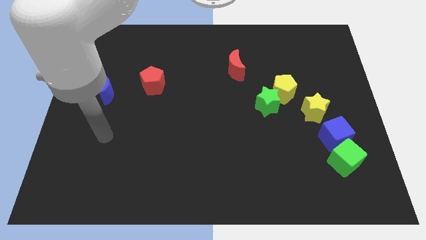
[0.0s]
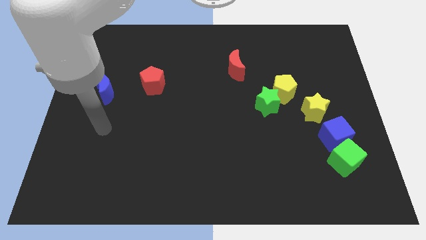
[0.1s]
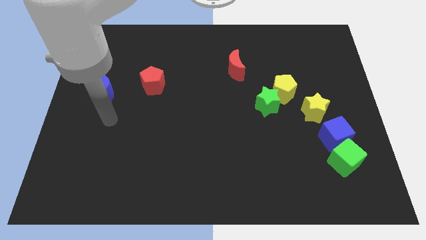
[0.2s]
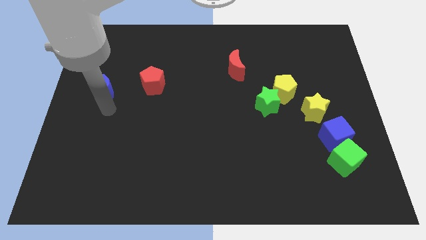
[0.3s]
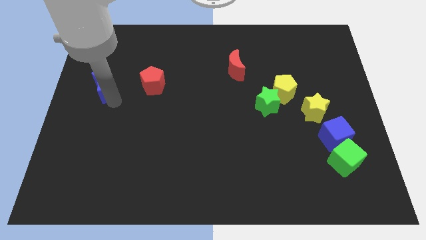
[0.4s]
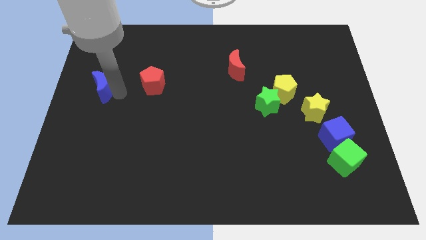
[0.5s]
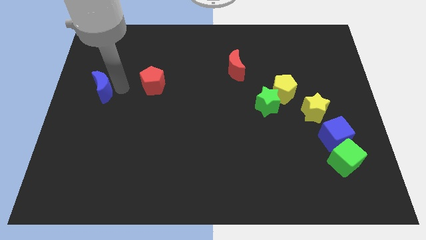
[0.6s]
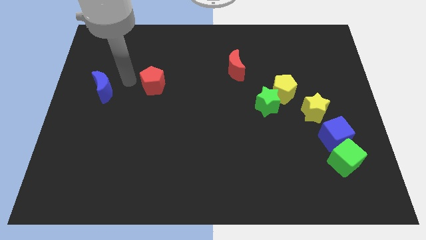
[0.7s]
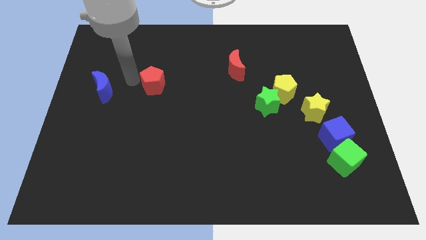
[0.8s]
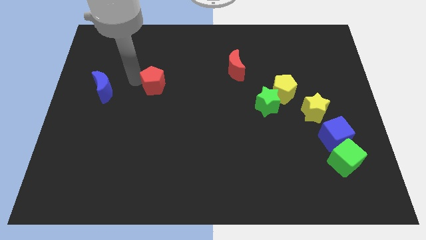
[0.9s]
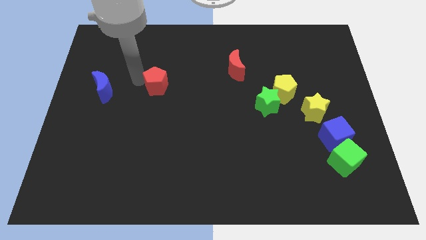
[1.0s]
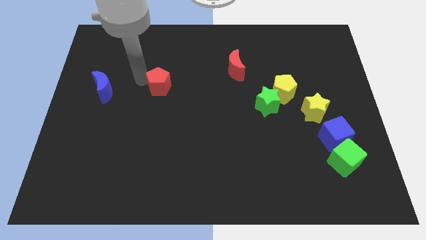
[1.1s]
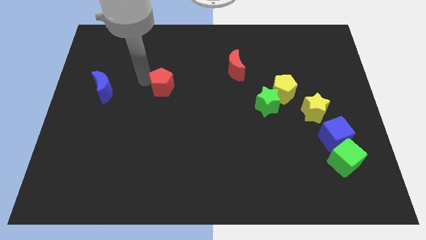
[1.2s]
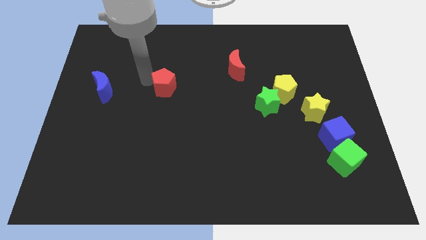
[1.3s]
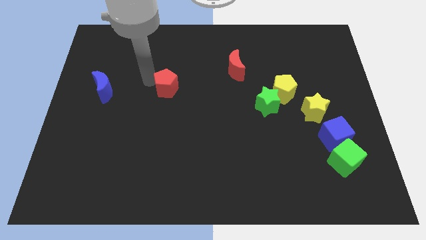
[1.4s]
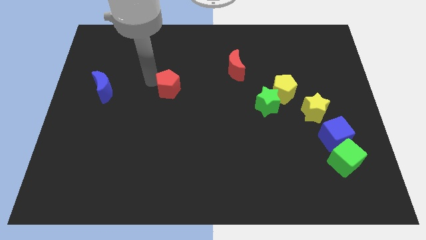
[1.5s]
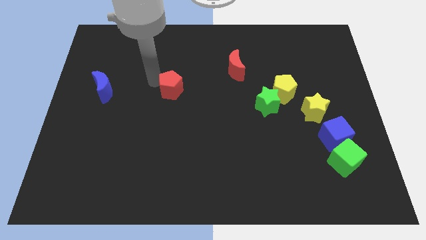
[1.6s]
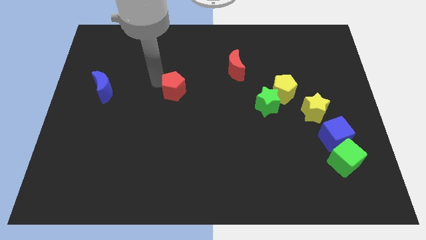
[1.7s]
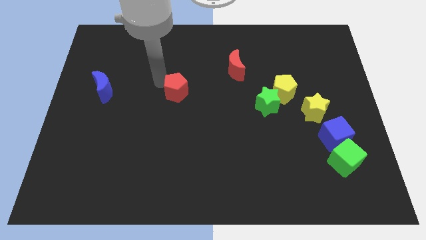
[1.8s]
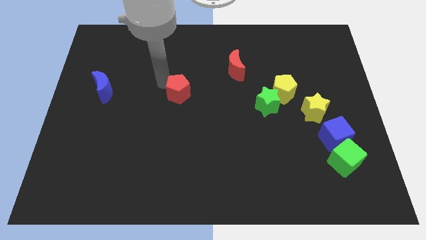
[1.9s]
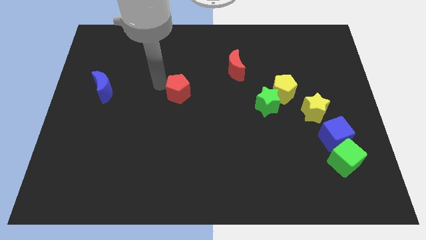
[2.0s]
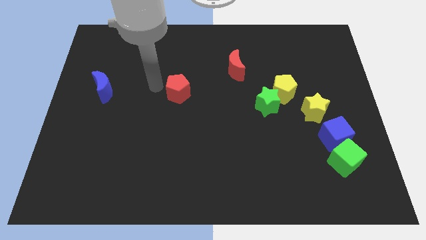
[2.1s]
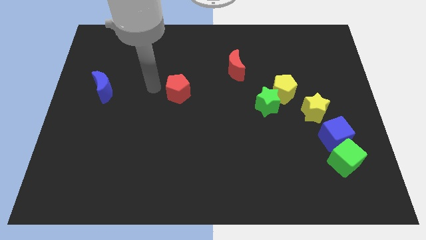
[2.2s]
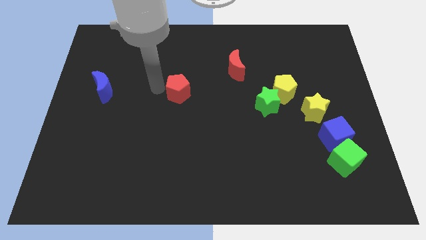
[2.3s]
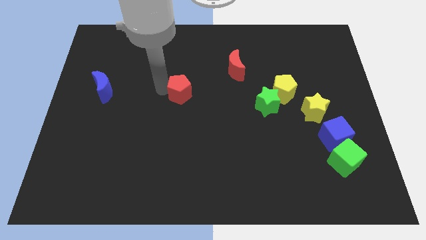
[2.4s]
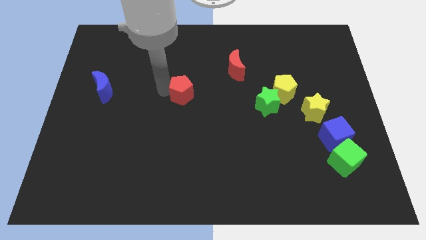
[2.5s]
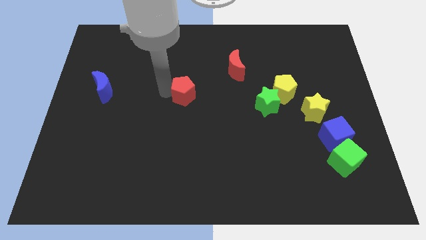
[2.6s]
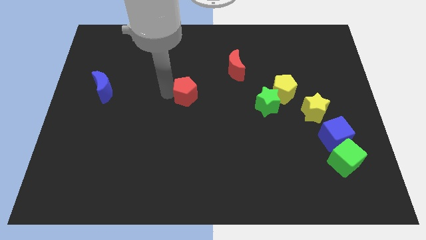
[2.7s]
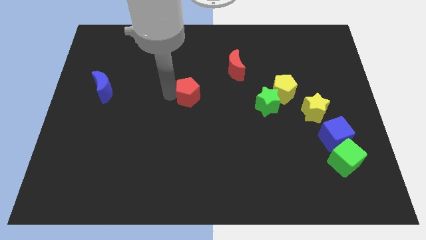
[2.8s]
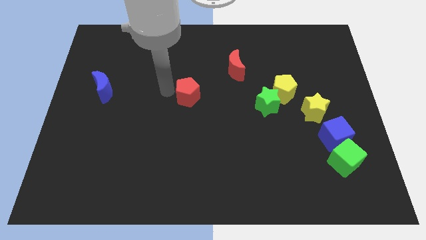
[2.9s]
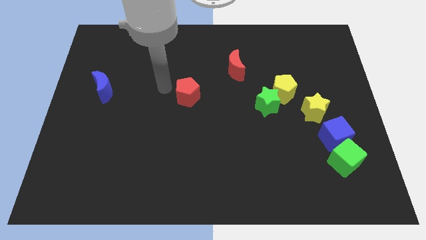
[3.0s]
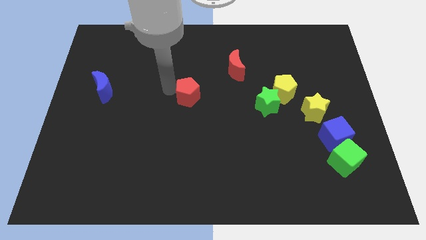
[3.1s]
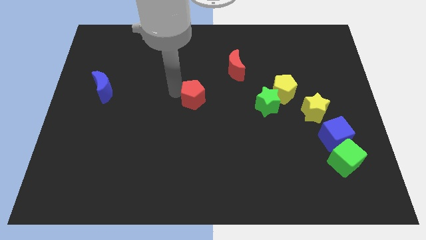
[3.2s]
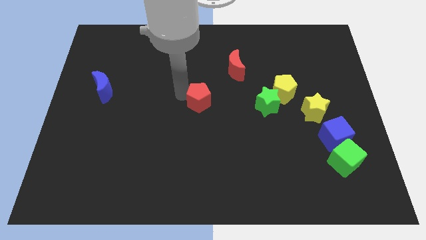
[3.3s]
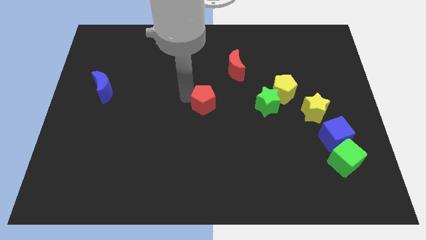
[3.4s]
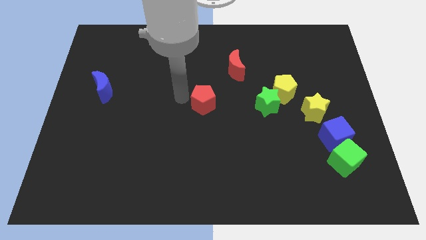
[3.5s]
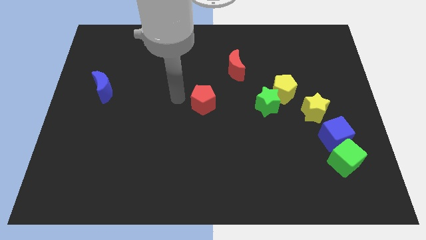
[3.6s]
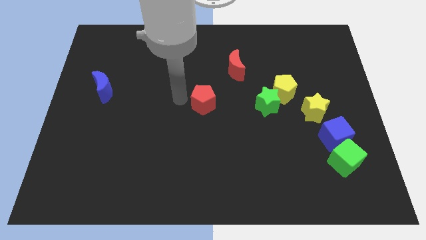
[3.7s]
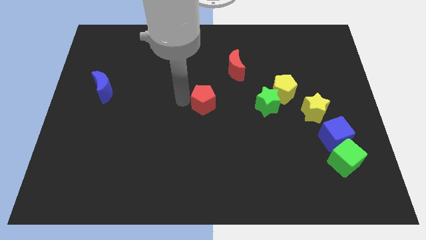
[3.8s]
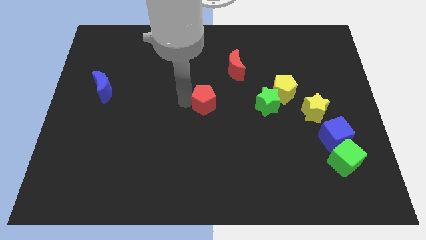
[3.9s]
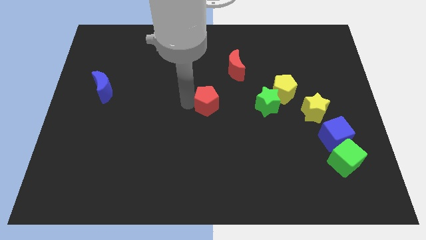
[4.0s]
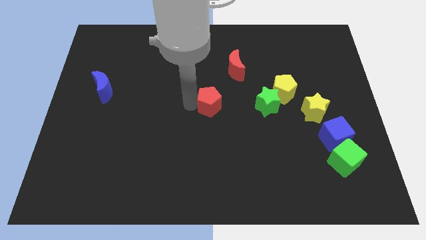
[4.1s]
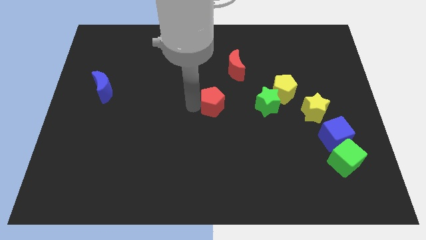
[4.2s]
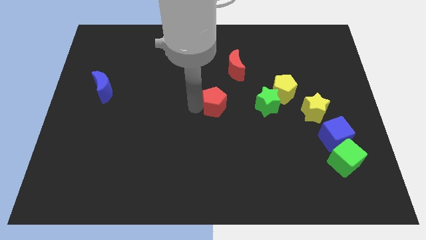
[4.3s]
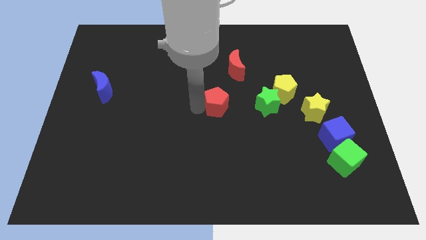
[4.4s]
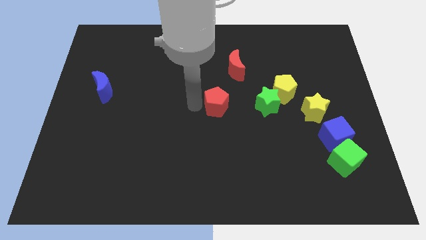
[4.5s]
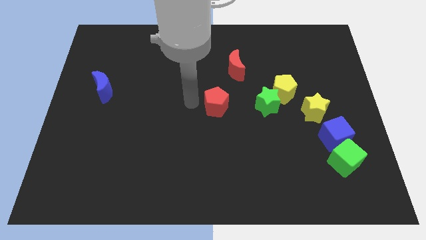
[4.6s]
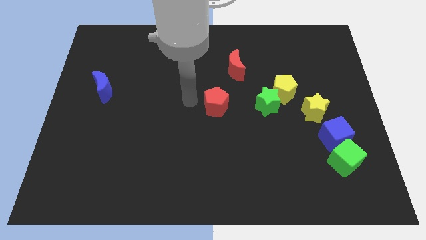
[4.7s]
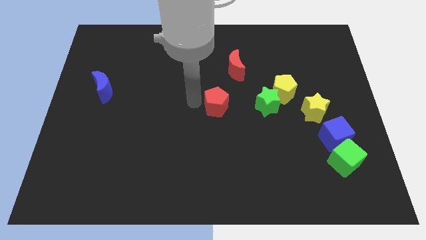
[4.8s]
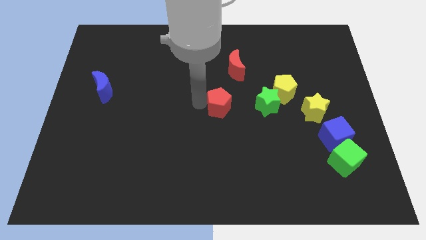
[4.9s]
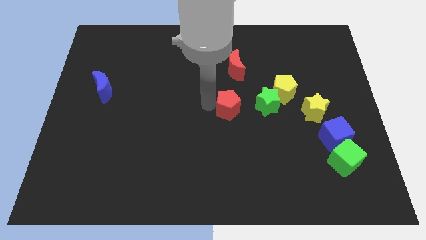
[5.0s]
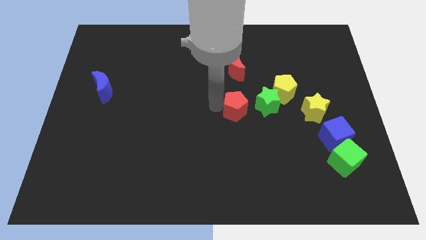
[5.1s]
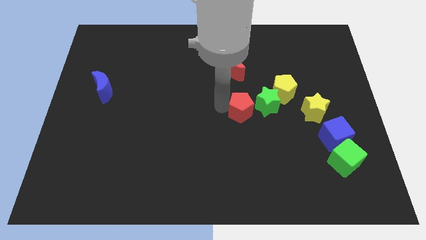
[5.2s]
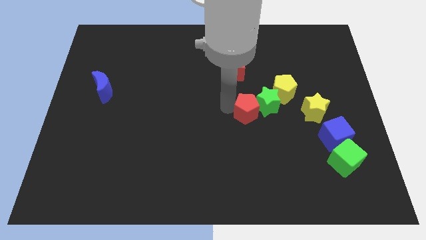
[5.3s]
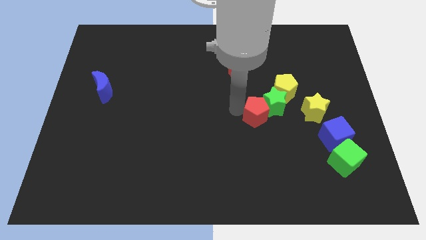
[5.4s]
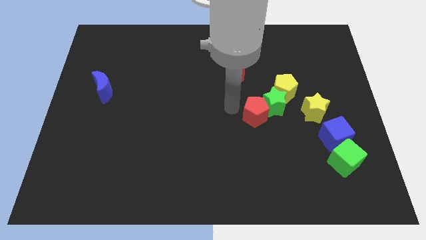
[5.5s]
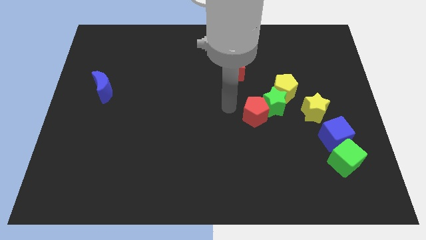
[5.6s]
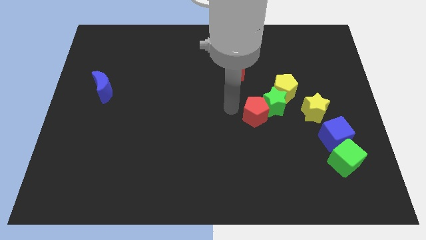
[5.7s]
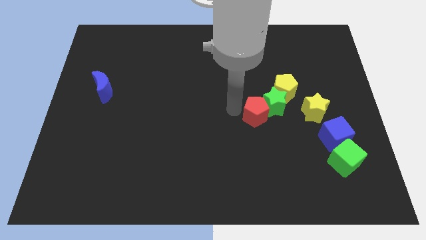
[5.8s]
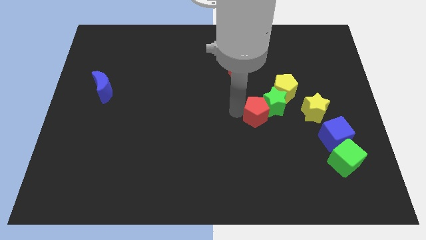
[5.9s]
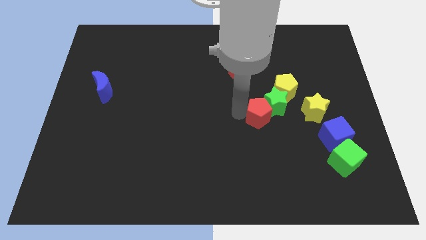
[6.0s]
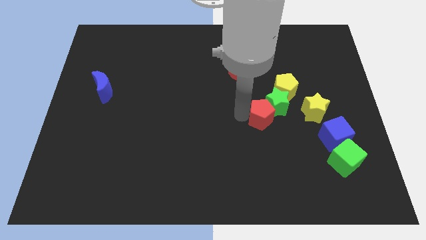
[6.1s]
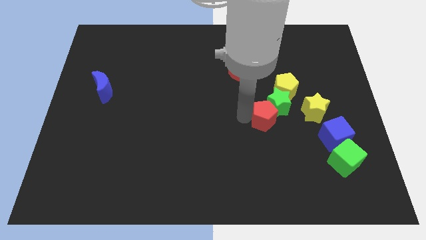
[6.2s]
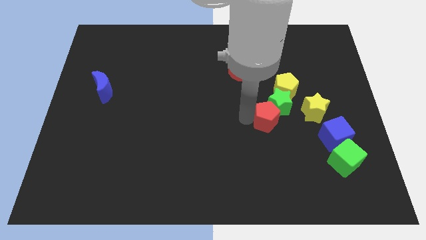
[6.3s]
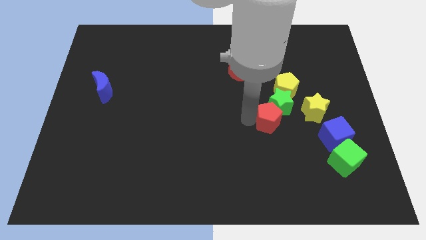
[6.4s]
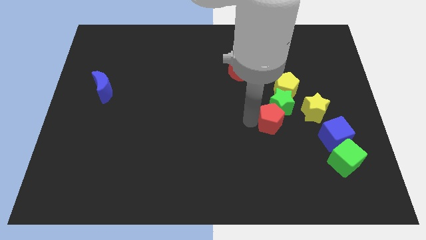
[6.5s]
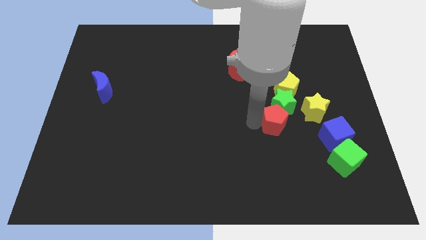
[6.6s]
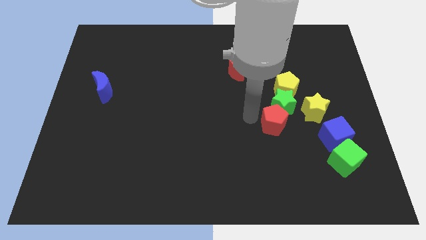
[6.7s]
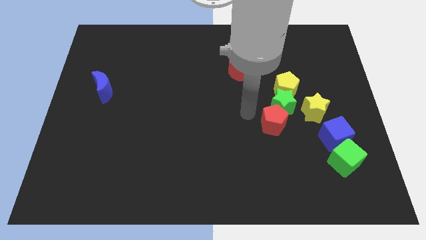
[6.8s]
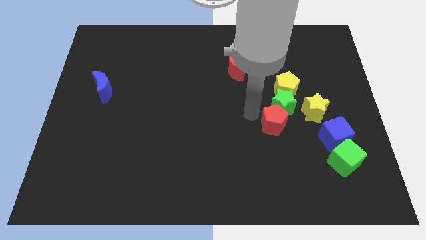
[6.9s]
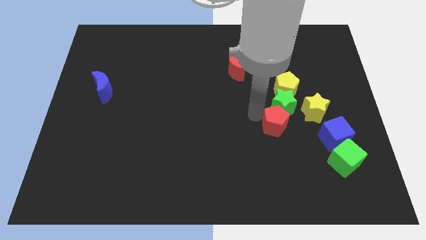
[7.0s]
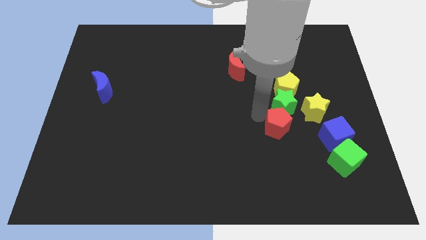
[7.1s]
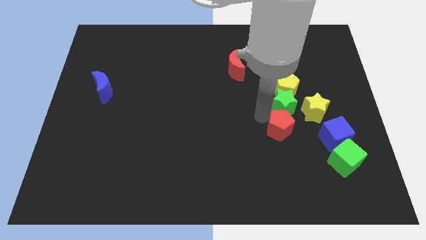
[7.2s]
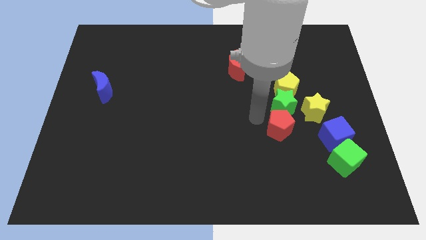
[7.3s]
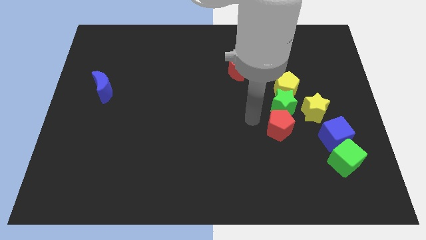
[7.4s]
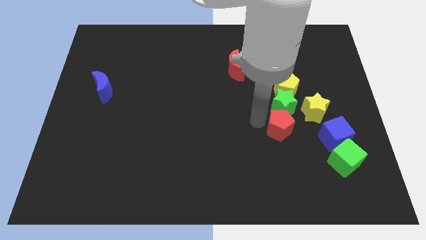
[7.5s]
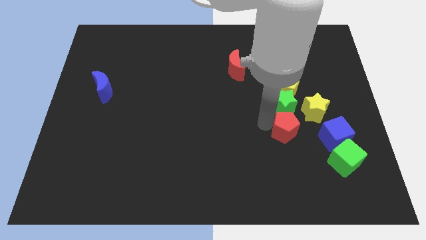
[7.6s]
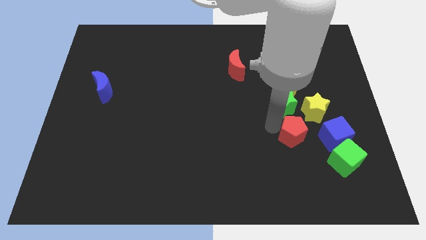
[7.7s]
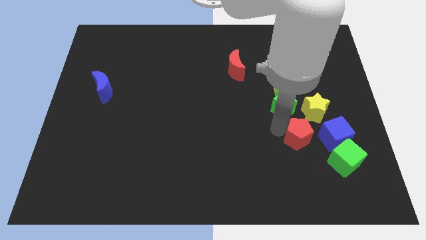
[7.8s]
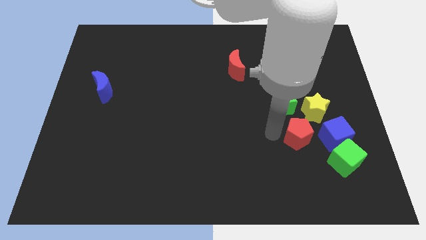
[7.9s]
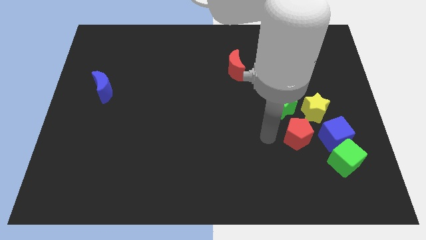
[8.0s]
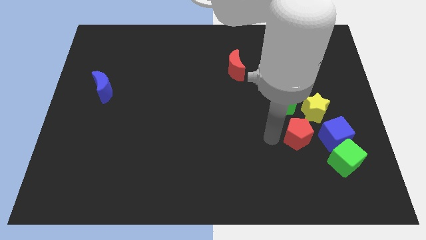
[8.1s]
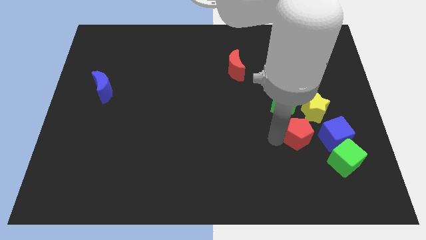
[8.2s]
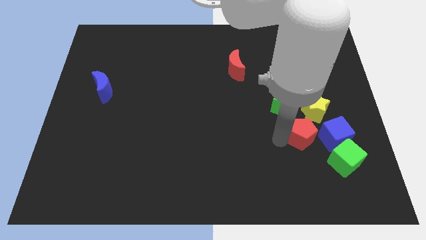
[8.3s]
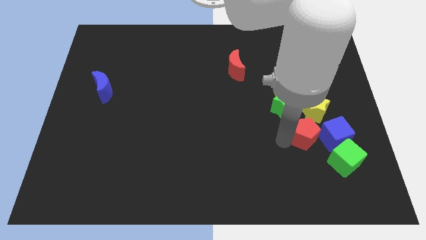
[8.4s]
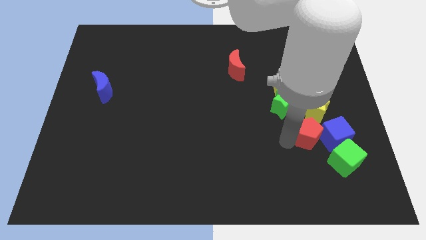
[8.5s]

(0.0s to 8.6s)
push the red pentagon to the blue cube
